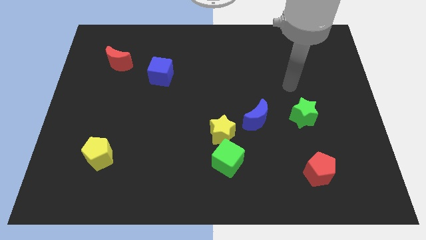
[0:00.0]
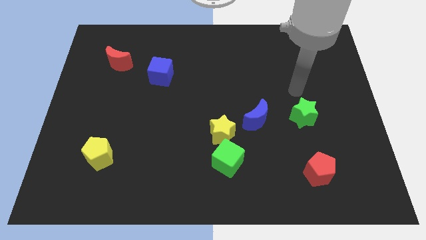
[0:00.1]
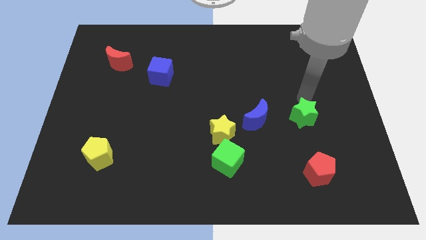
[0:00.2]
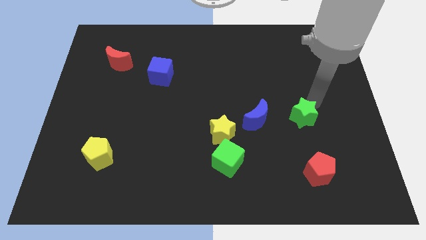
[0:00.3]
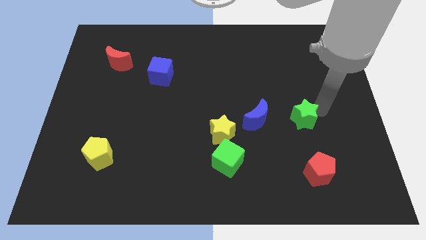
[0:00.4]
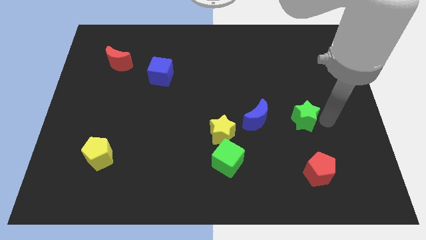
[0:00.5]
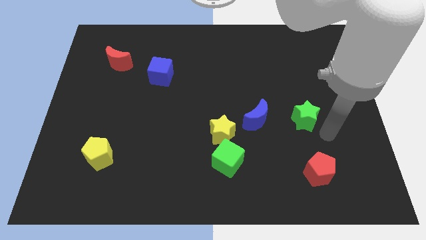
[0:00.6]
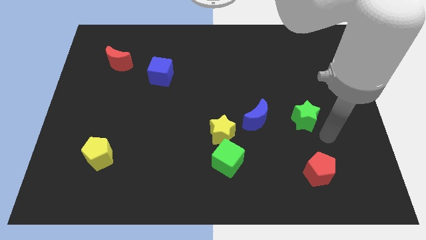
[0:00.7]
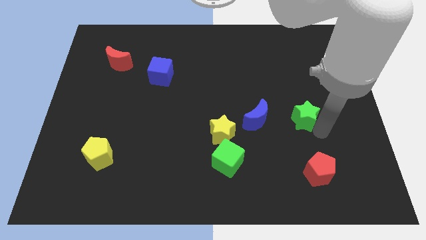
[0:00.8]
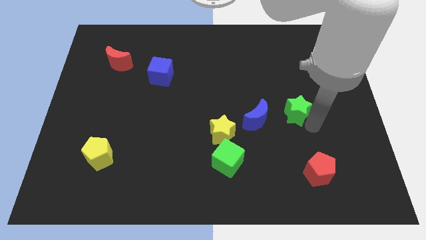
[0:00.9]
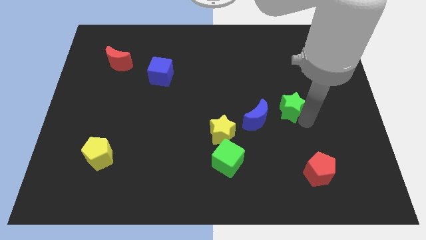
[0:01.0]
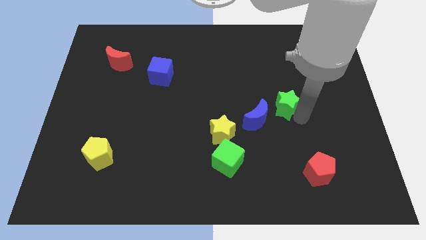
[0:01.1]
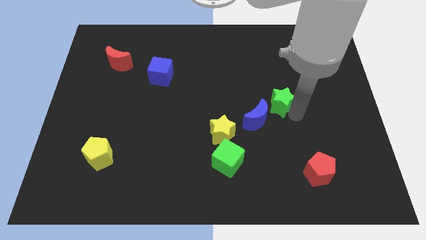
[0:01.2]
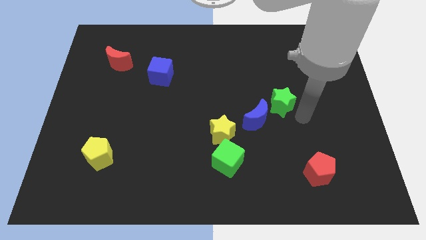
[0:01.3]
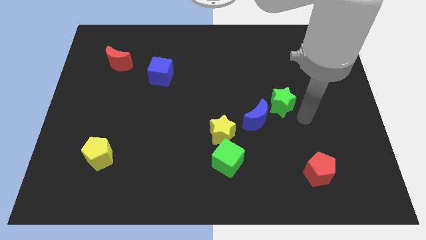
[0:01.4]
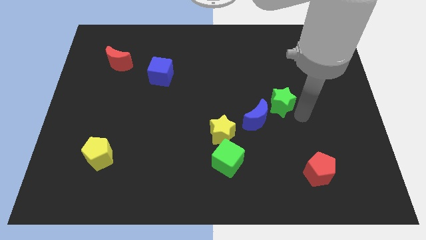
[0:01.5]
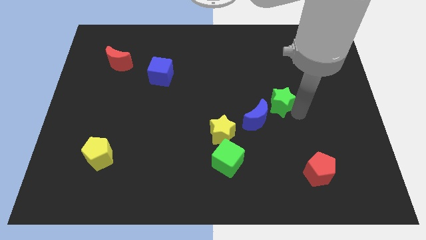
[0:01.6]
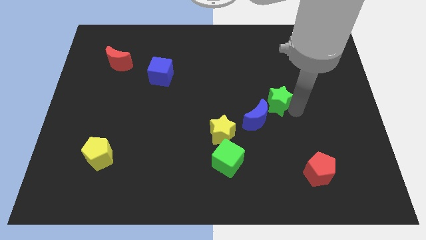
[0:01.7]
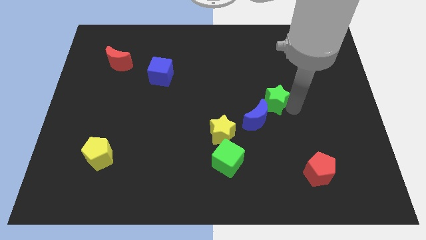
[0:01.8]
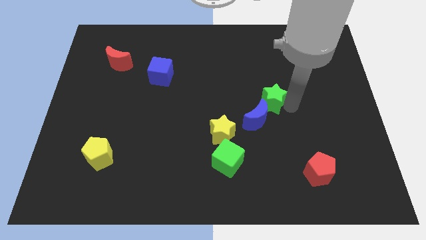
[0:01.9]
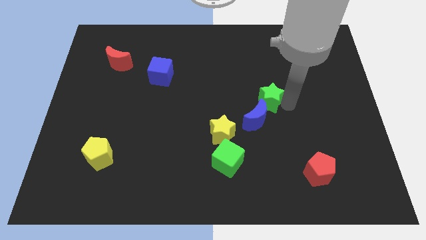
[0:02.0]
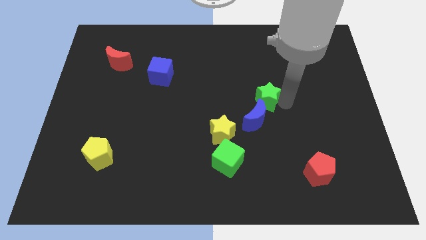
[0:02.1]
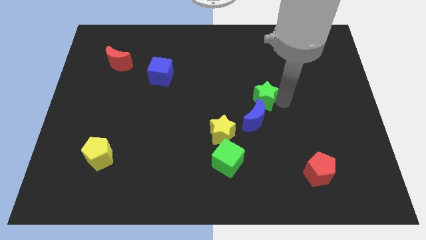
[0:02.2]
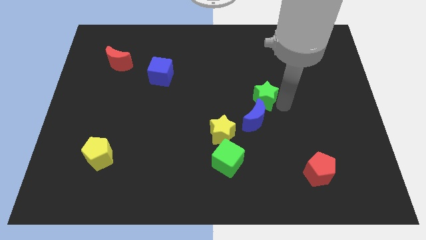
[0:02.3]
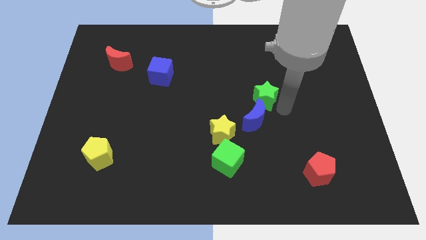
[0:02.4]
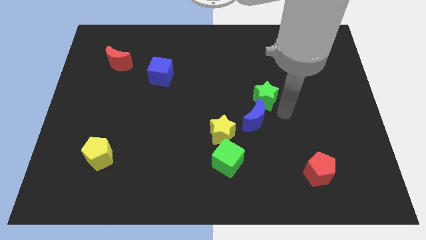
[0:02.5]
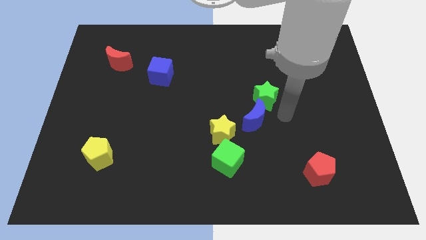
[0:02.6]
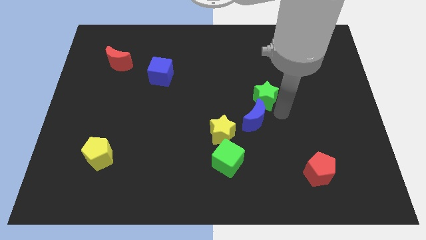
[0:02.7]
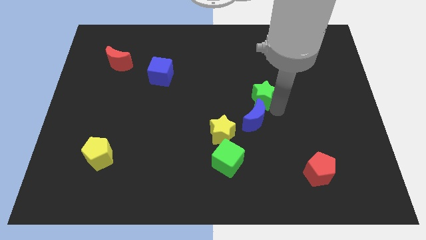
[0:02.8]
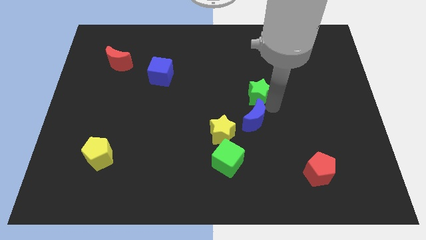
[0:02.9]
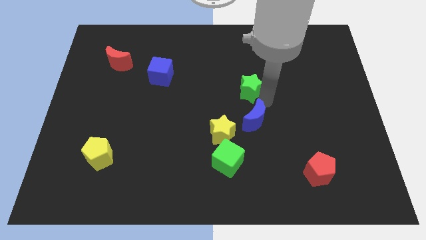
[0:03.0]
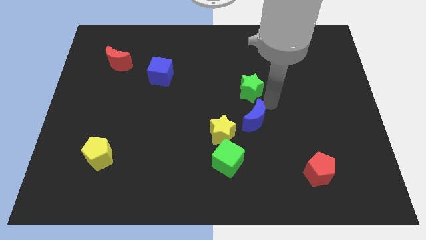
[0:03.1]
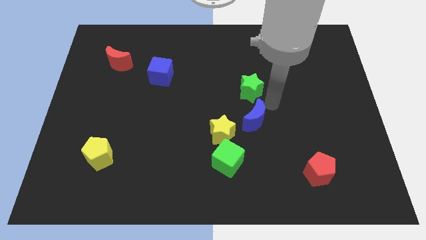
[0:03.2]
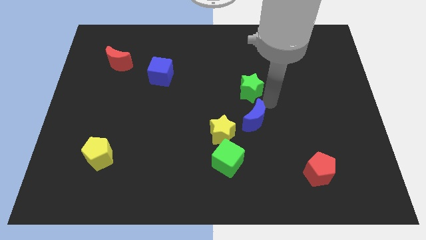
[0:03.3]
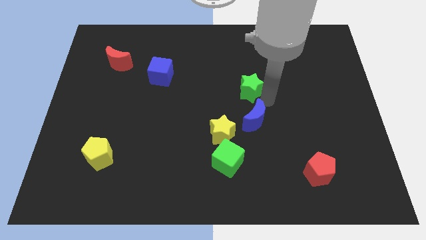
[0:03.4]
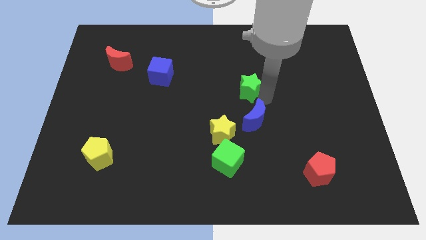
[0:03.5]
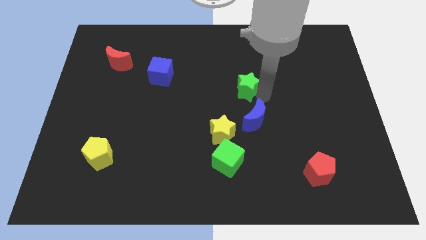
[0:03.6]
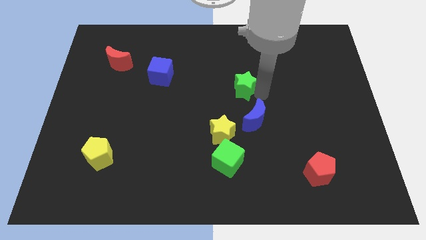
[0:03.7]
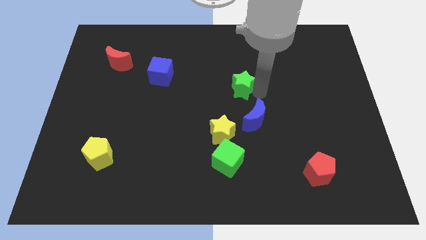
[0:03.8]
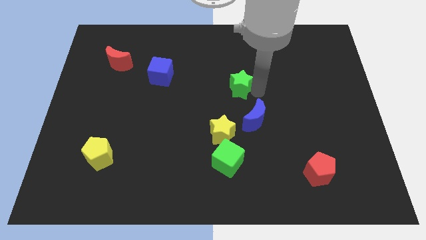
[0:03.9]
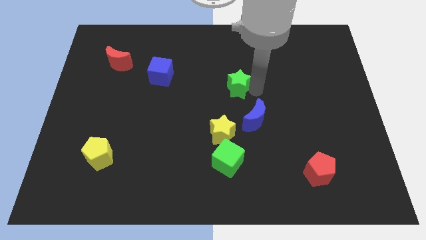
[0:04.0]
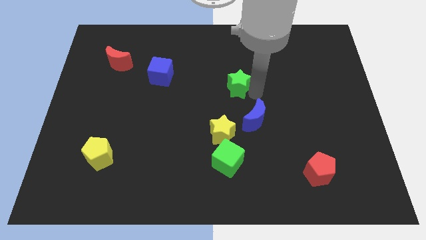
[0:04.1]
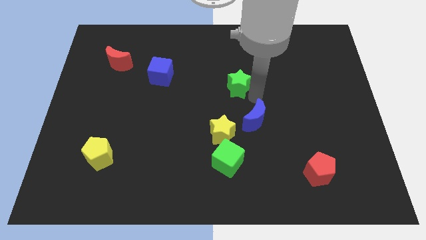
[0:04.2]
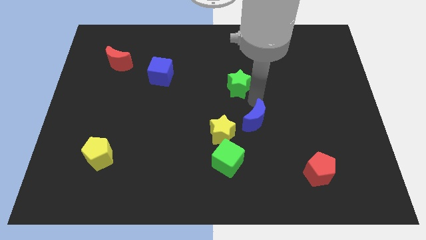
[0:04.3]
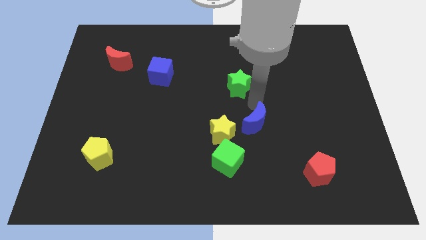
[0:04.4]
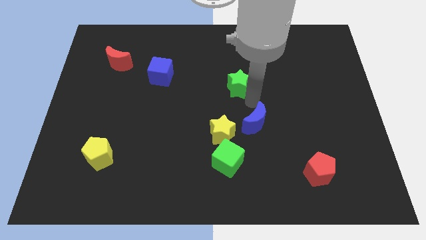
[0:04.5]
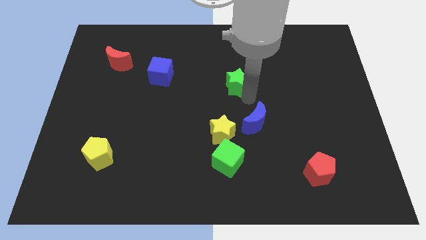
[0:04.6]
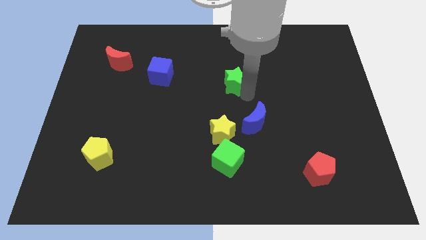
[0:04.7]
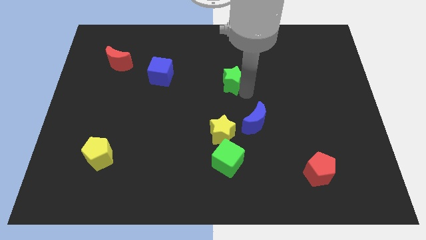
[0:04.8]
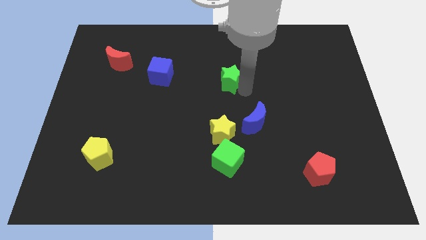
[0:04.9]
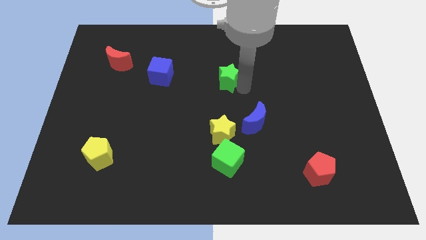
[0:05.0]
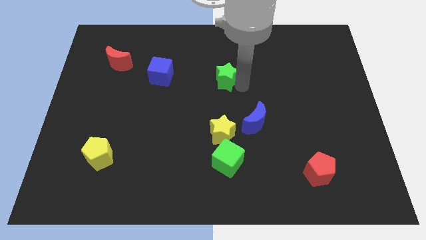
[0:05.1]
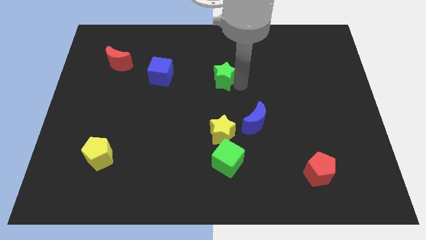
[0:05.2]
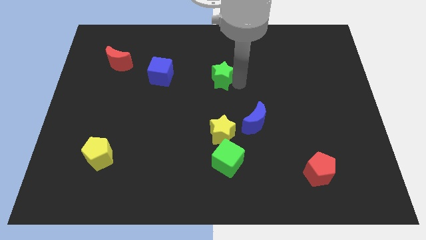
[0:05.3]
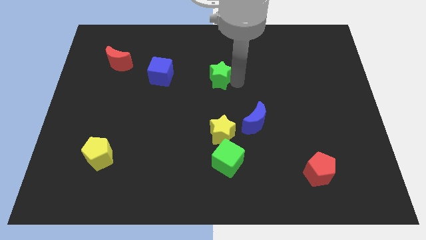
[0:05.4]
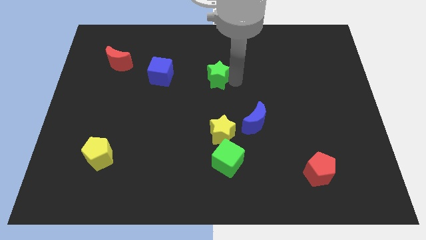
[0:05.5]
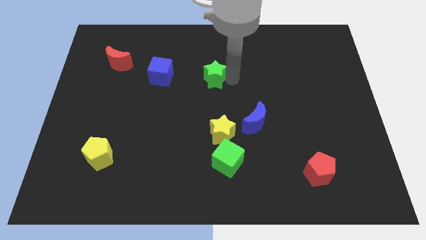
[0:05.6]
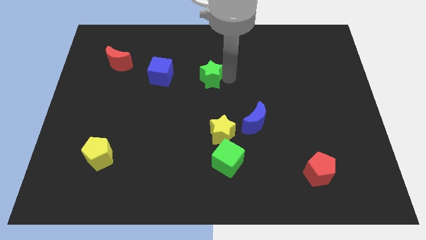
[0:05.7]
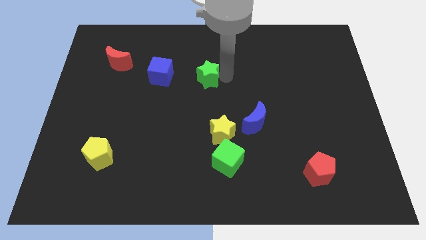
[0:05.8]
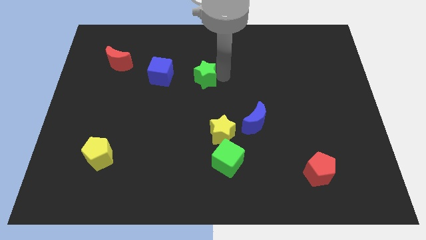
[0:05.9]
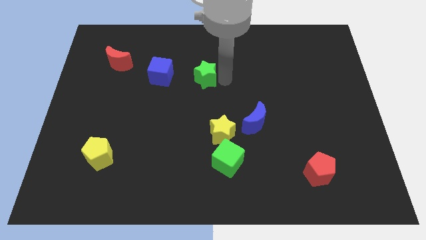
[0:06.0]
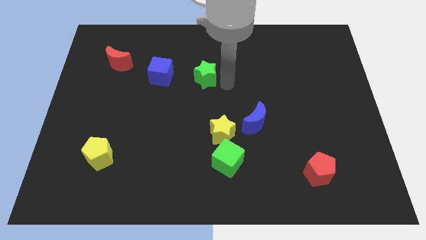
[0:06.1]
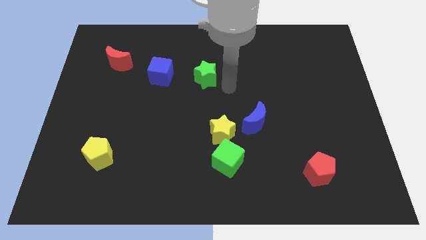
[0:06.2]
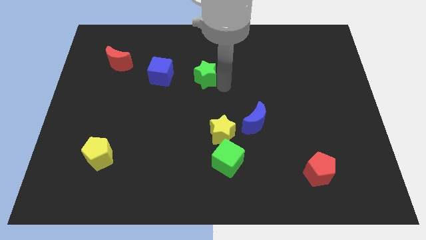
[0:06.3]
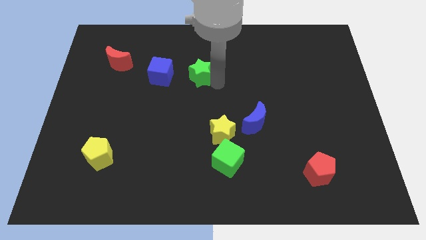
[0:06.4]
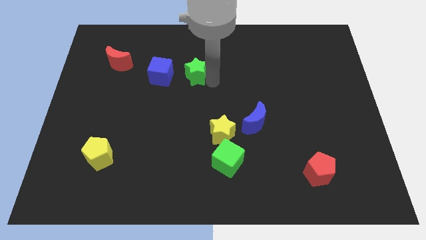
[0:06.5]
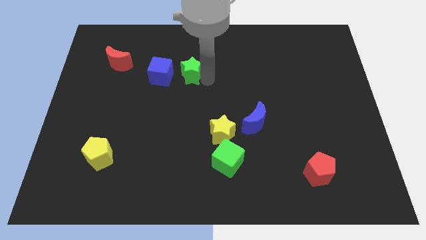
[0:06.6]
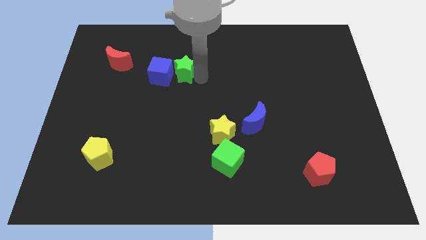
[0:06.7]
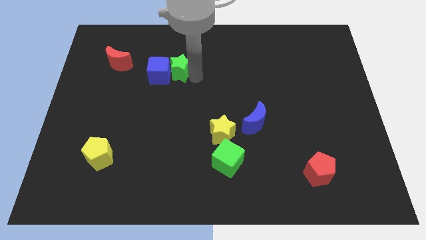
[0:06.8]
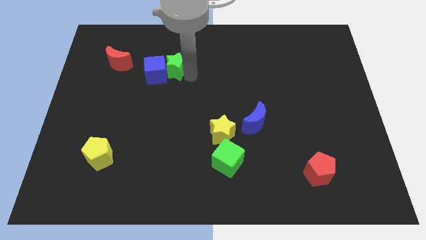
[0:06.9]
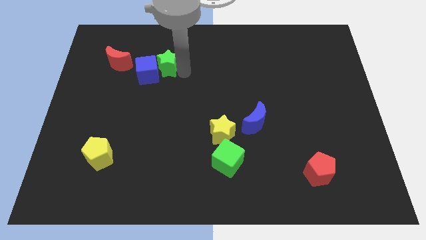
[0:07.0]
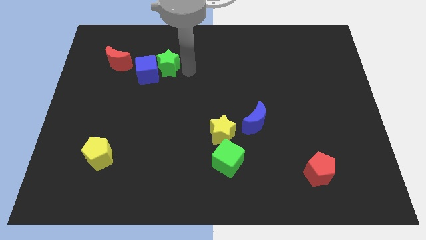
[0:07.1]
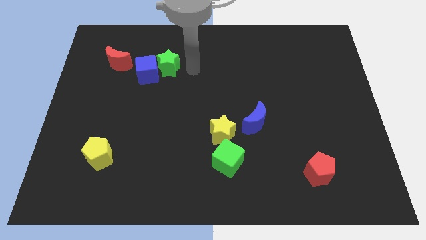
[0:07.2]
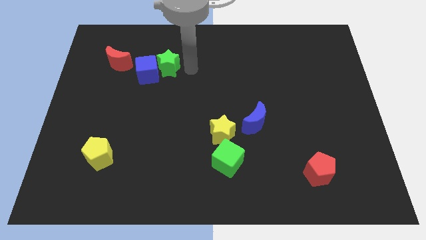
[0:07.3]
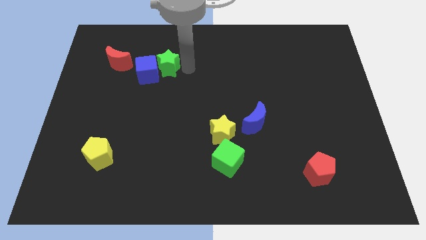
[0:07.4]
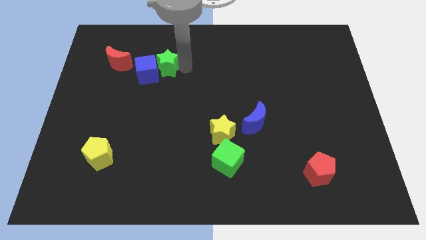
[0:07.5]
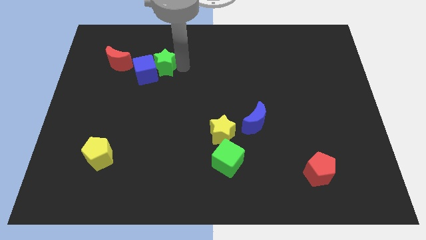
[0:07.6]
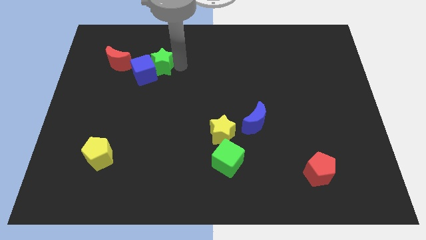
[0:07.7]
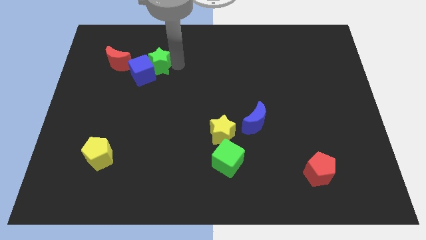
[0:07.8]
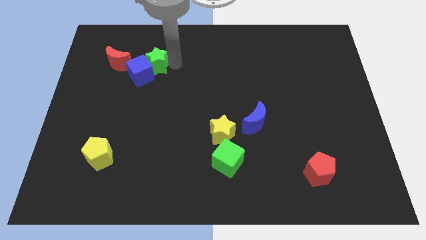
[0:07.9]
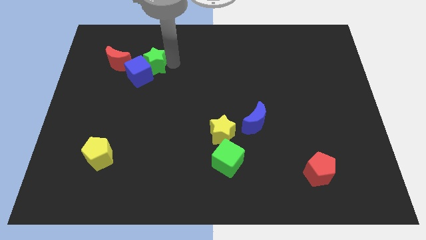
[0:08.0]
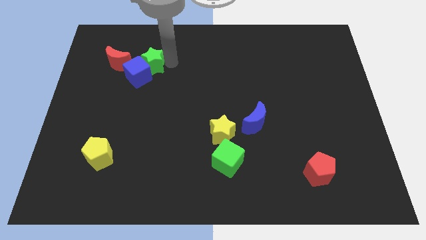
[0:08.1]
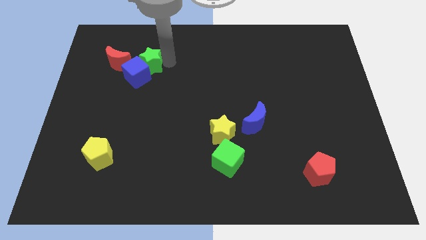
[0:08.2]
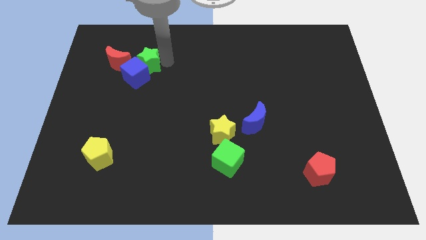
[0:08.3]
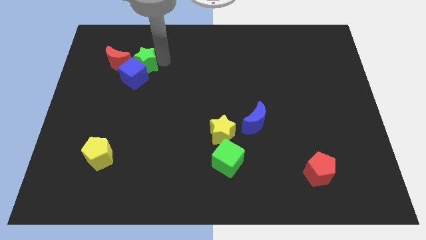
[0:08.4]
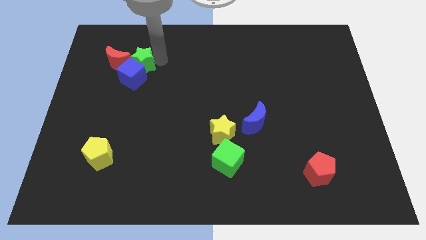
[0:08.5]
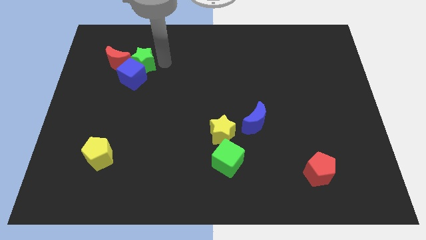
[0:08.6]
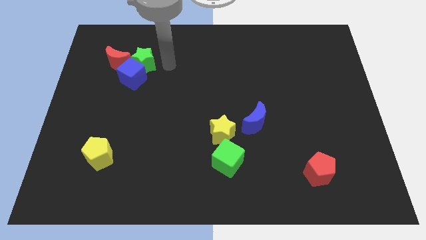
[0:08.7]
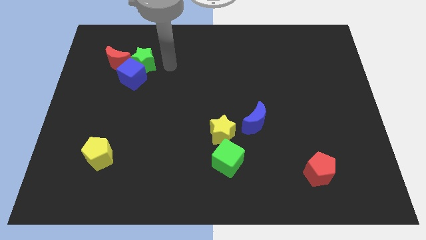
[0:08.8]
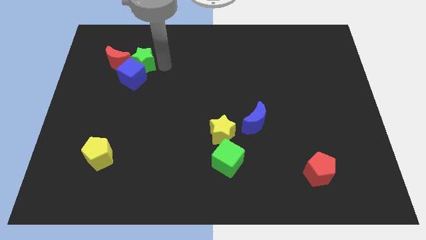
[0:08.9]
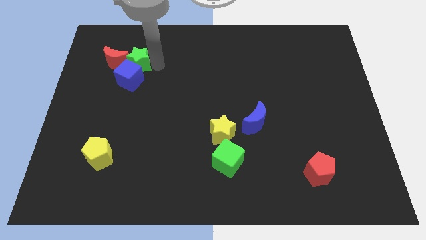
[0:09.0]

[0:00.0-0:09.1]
put the green star to the red moon
